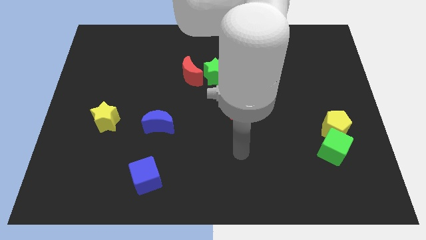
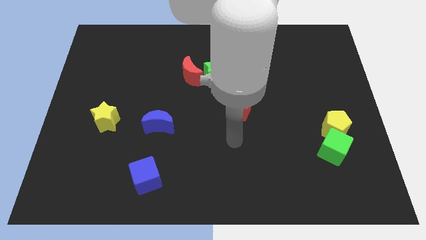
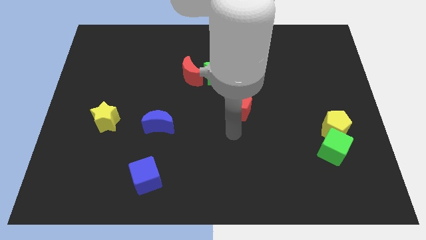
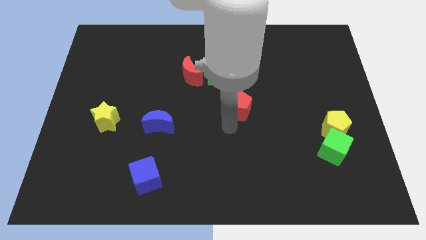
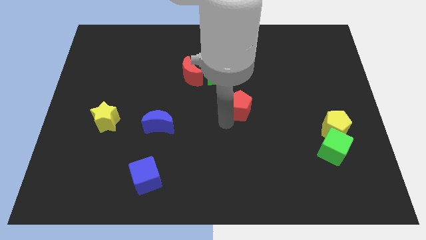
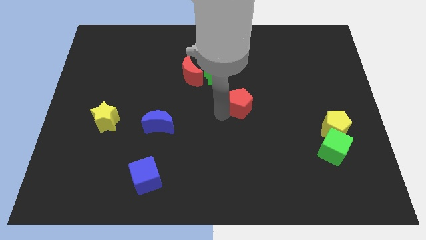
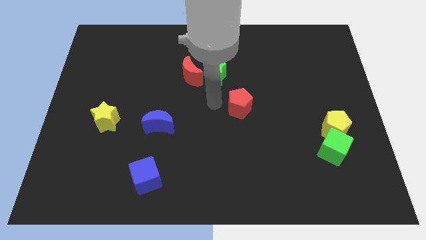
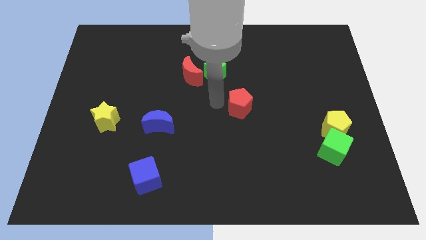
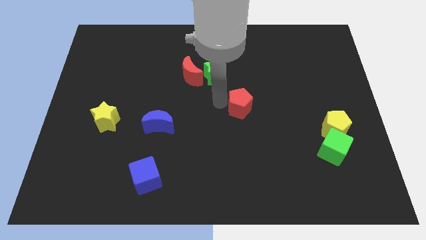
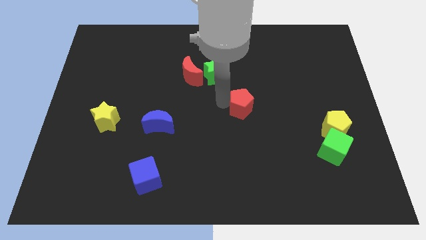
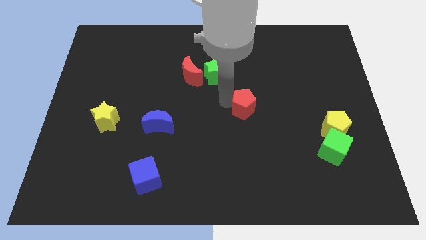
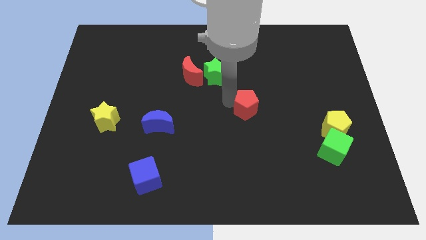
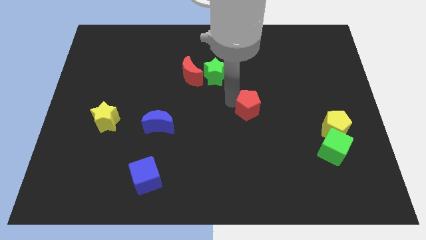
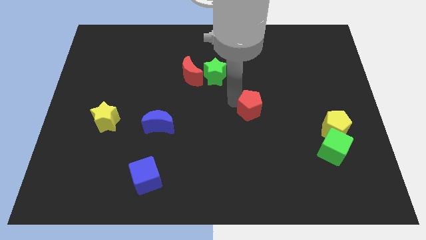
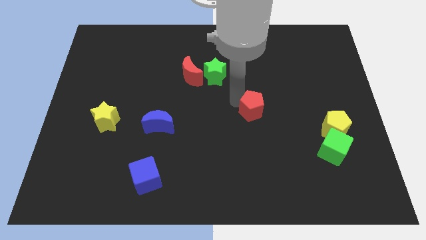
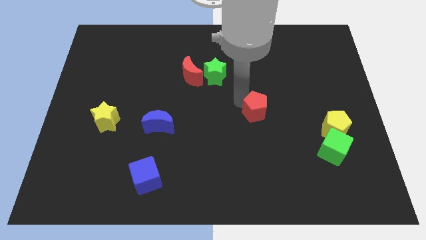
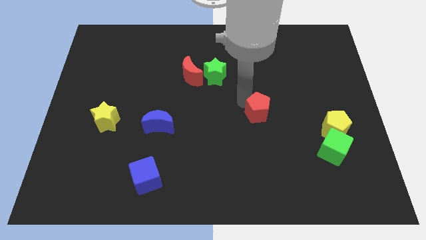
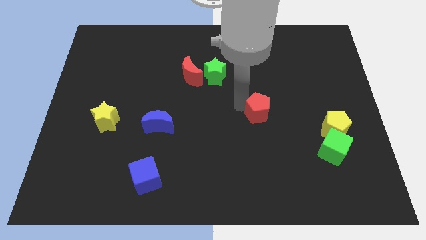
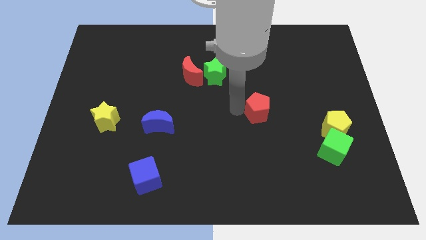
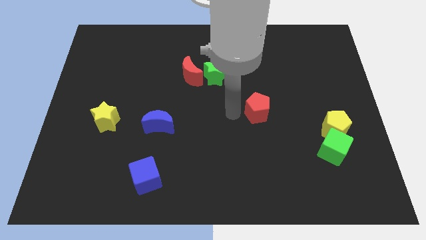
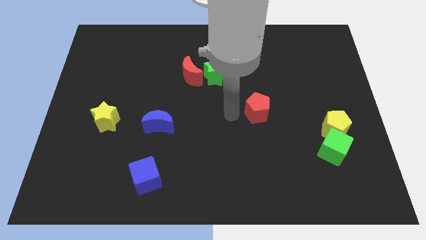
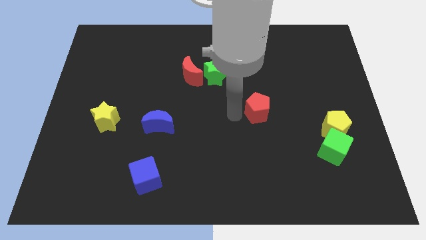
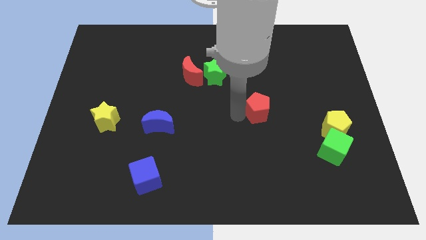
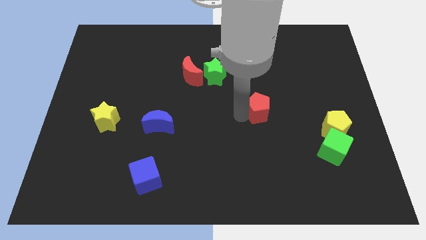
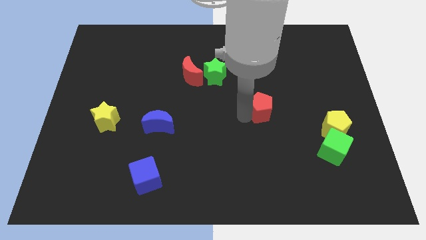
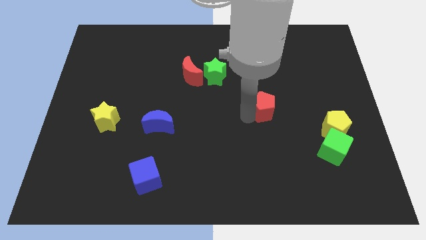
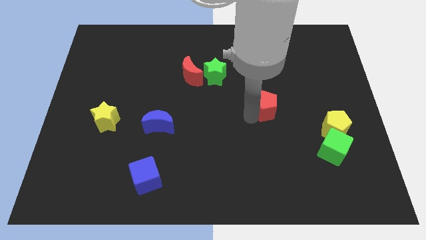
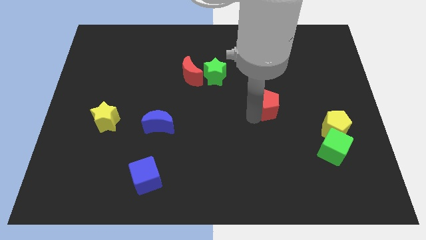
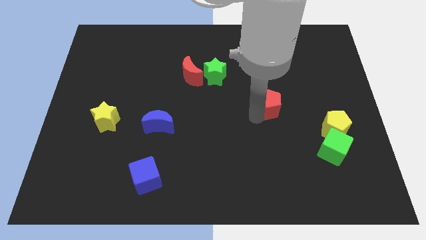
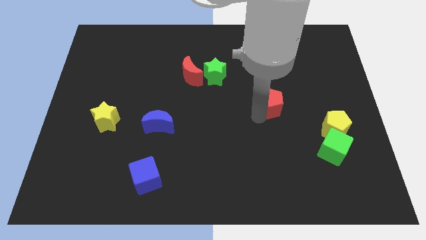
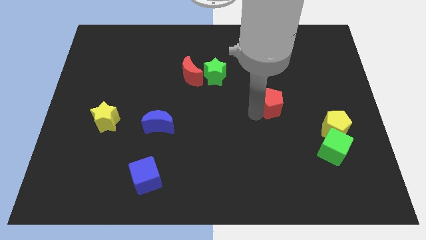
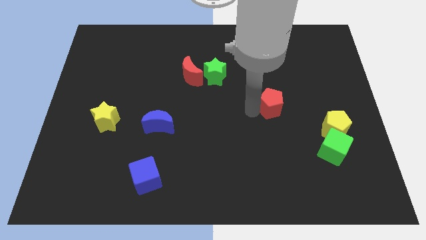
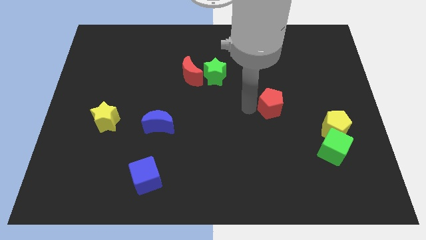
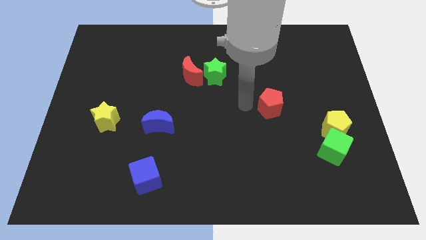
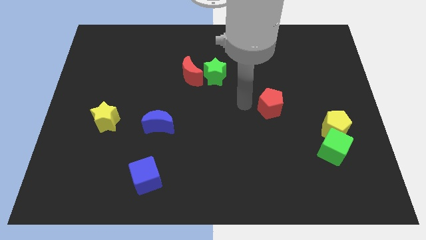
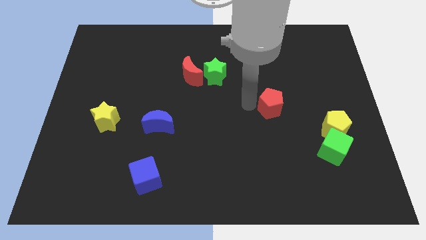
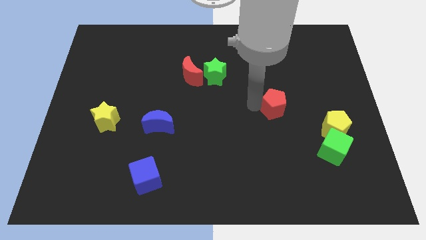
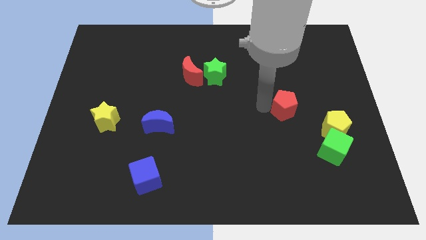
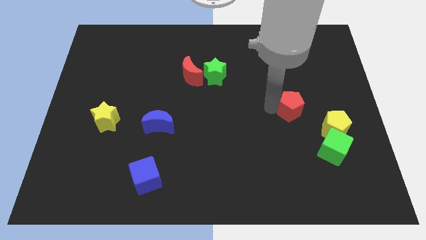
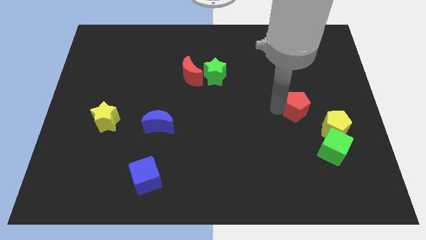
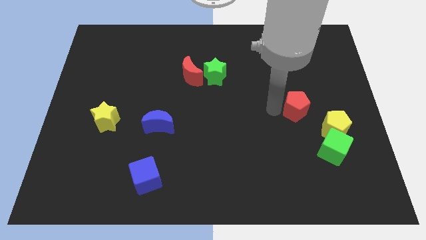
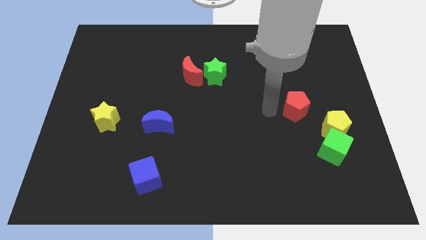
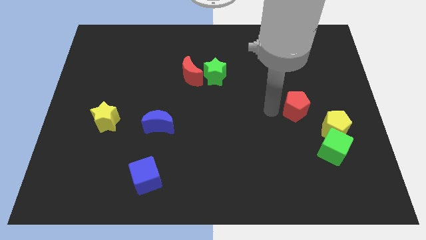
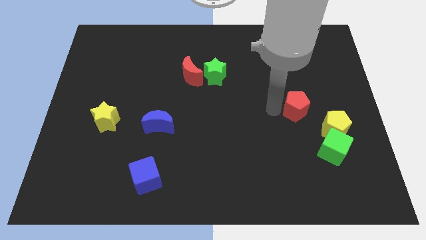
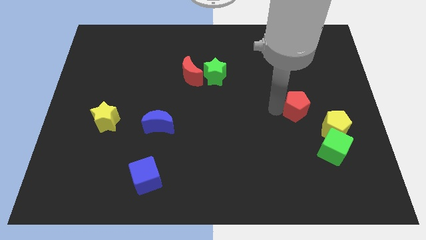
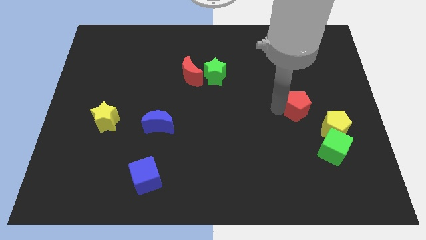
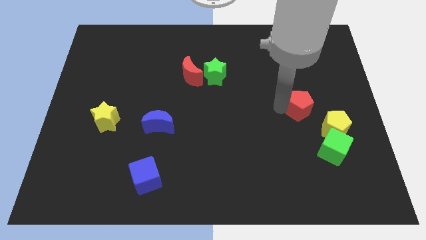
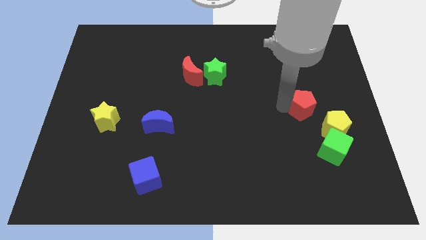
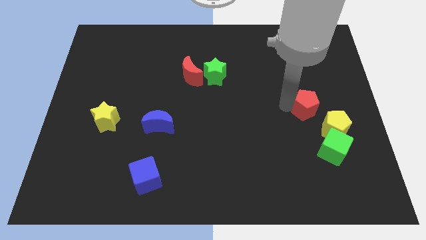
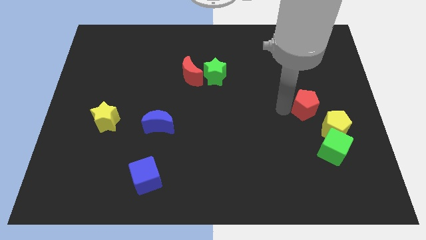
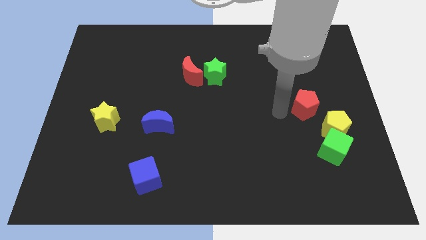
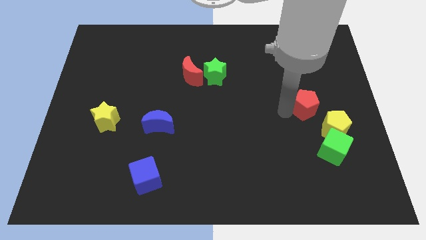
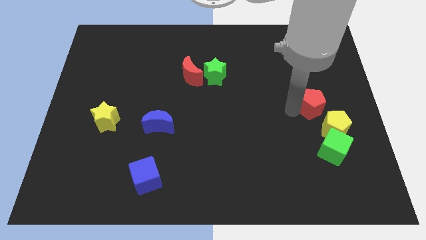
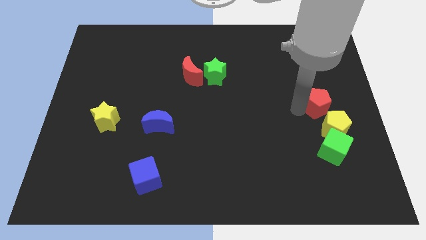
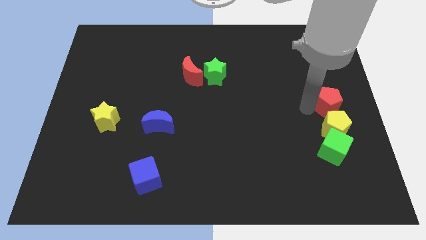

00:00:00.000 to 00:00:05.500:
move the red pentagon to the right side

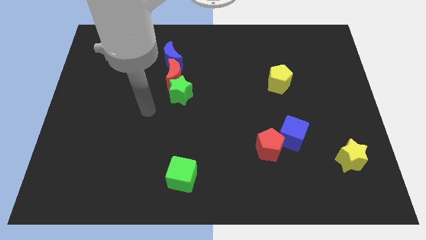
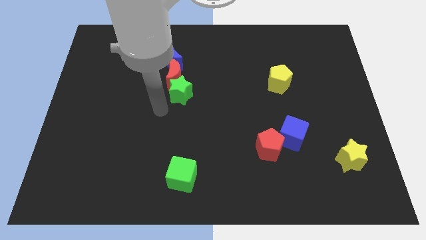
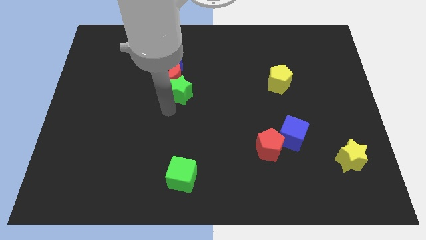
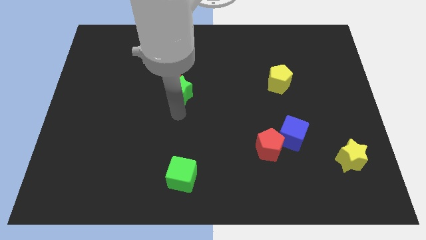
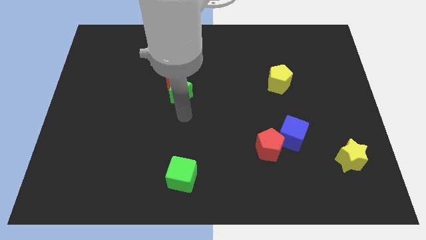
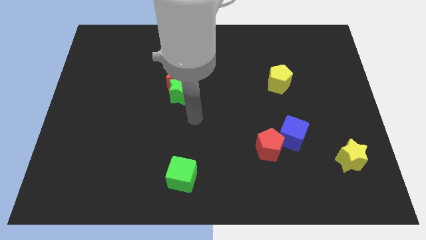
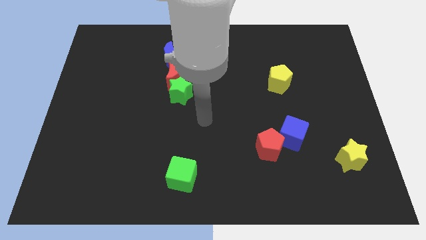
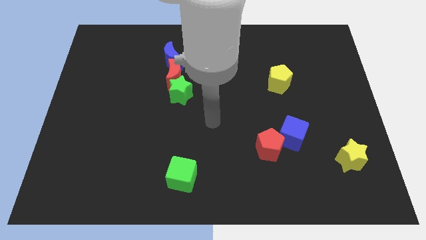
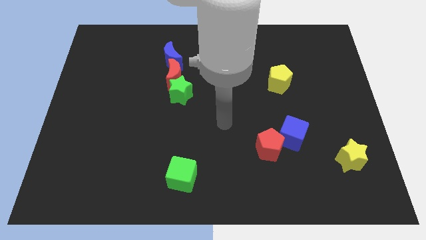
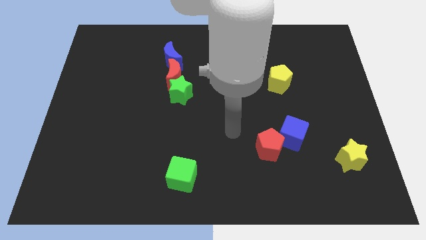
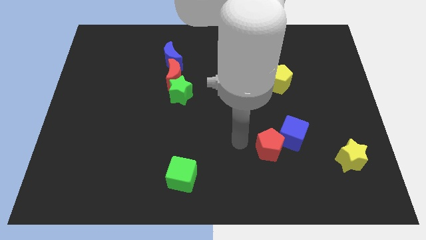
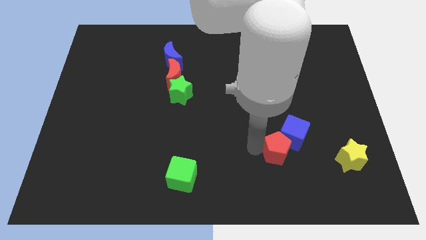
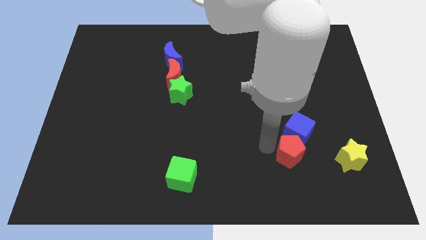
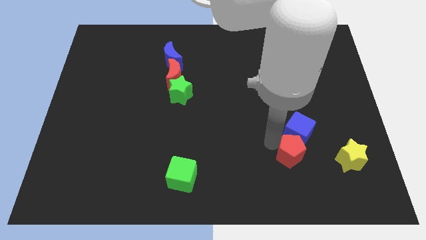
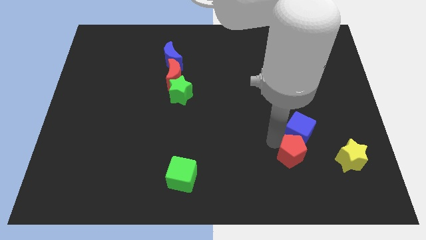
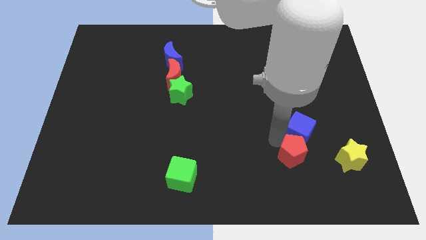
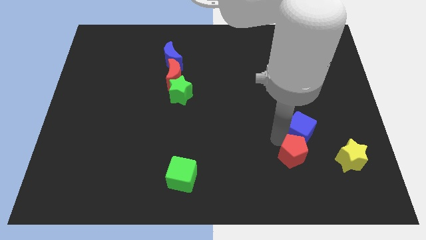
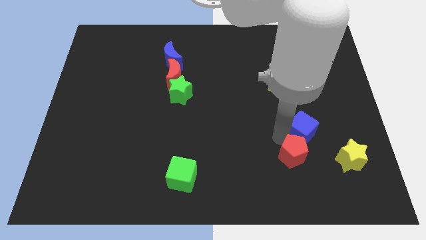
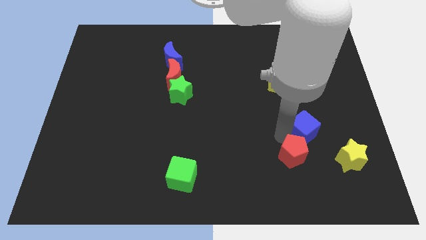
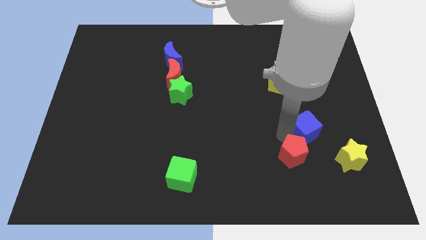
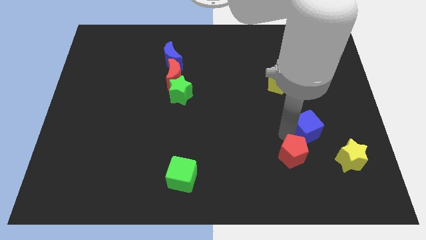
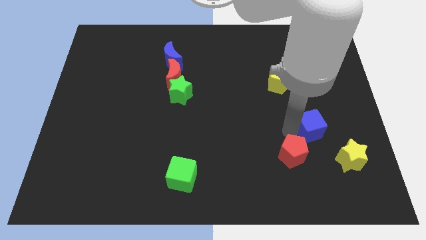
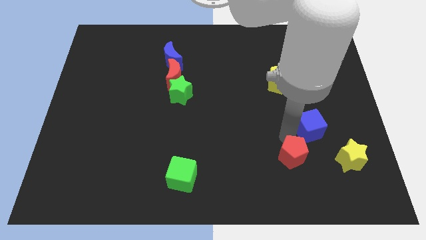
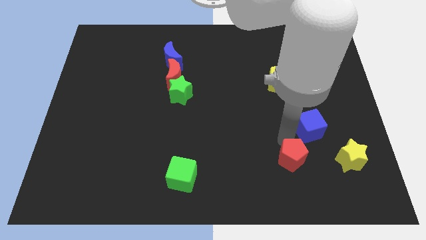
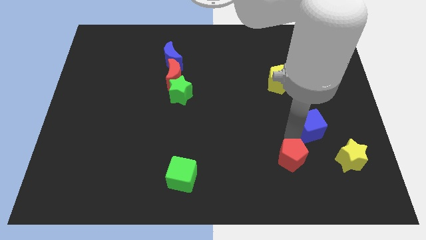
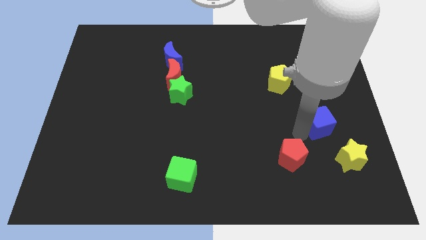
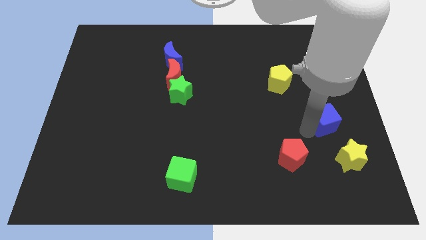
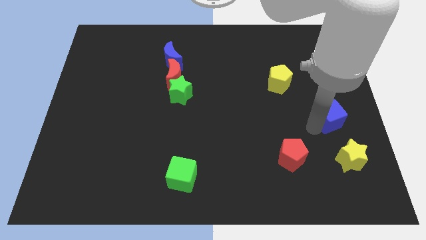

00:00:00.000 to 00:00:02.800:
move the blue cube to the right side
